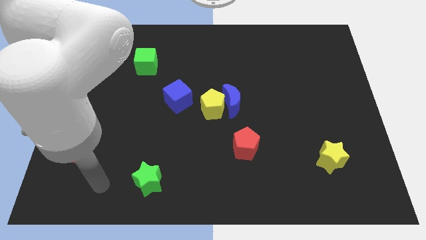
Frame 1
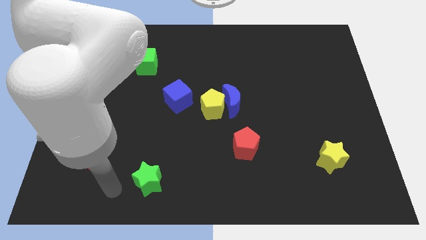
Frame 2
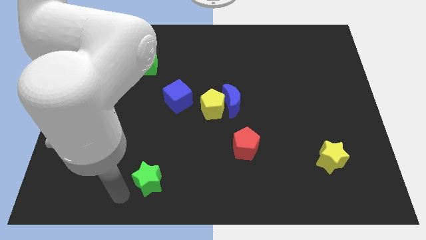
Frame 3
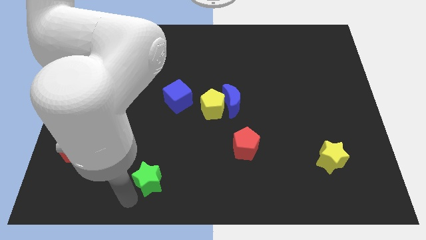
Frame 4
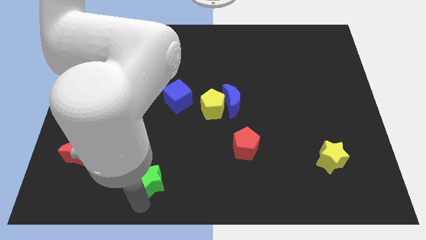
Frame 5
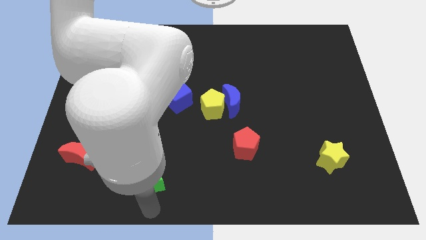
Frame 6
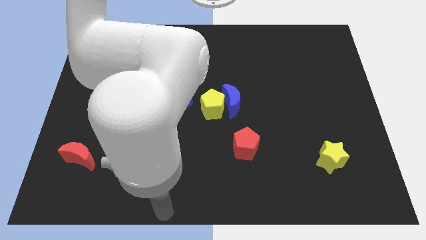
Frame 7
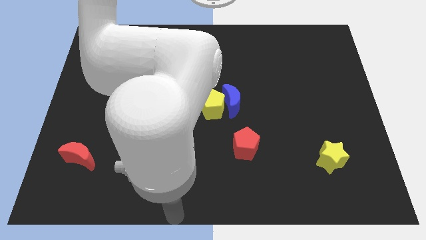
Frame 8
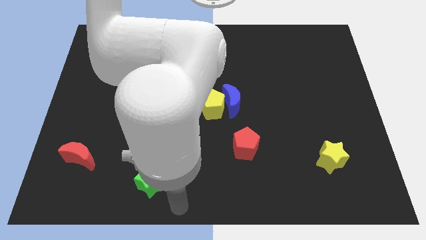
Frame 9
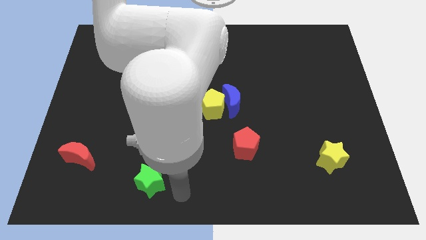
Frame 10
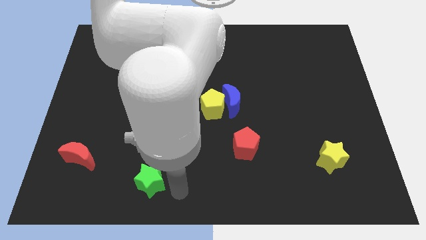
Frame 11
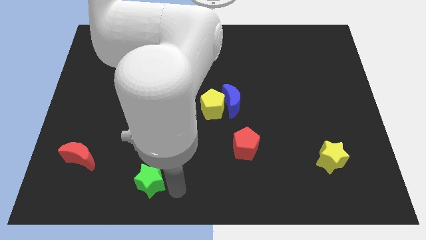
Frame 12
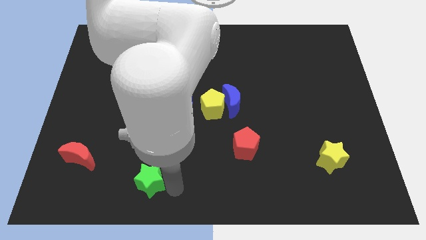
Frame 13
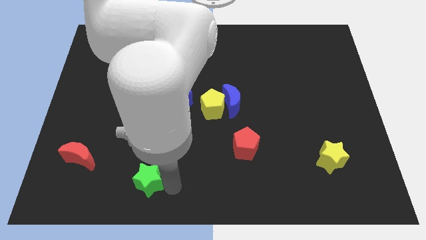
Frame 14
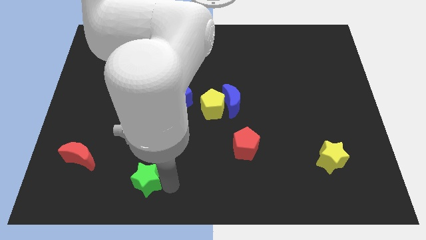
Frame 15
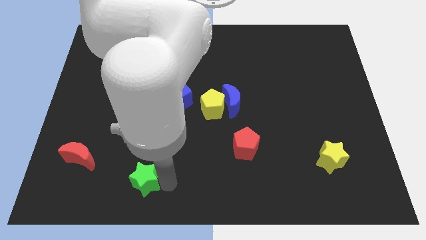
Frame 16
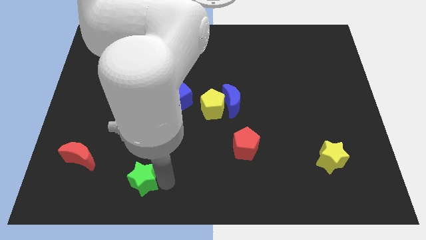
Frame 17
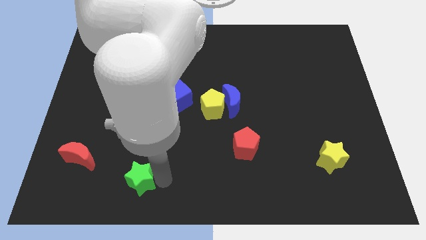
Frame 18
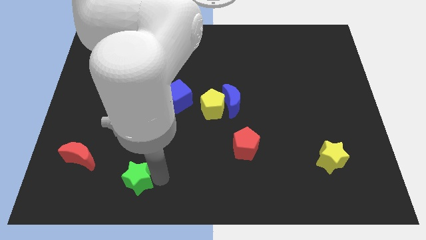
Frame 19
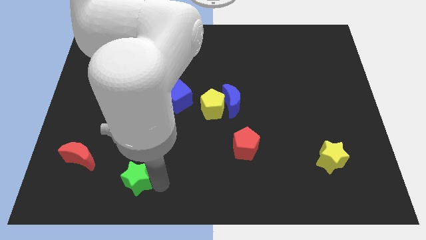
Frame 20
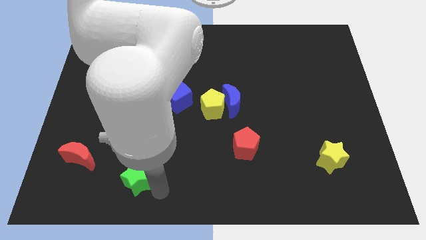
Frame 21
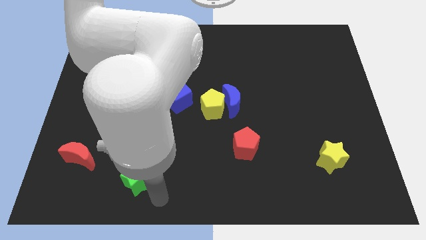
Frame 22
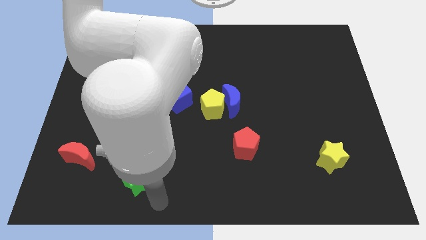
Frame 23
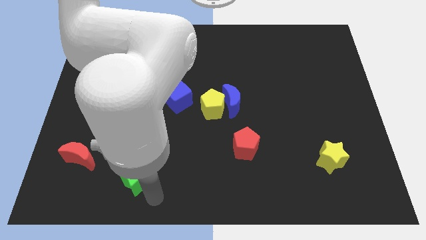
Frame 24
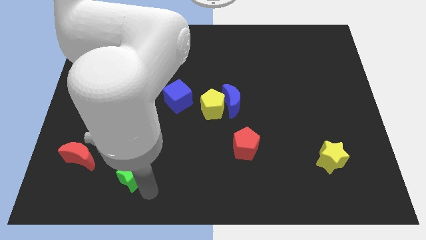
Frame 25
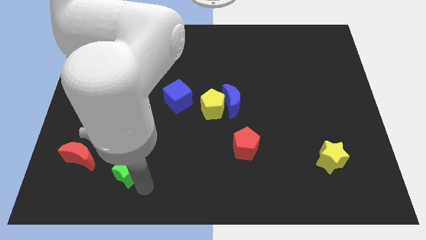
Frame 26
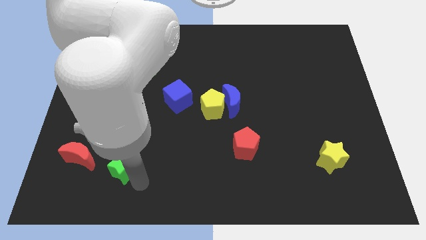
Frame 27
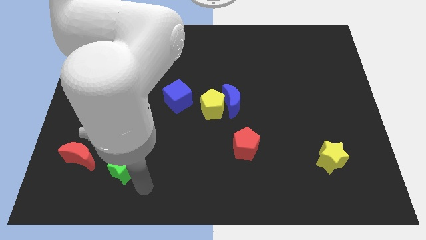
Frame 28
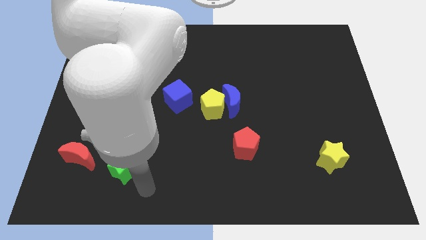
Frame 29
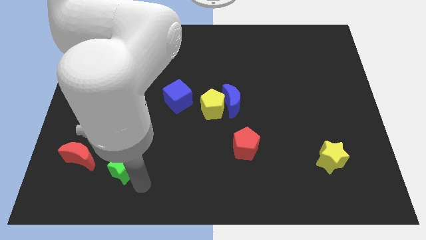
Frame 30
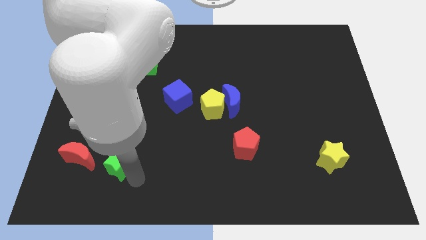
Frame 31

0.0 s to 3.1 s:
push the green star up and then to the left a little

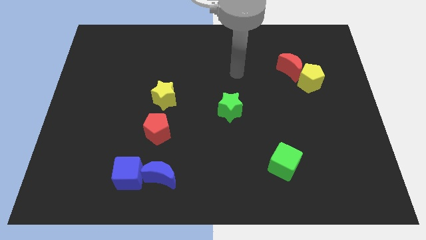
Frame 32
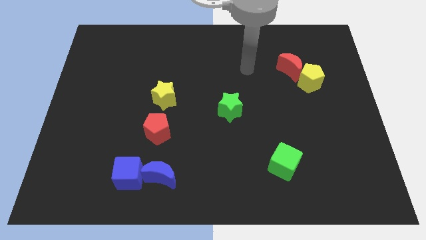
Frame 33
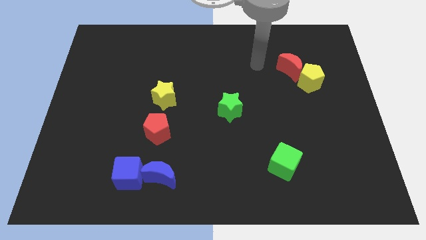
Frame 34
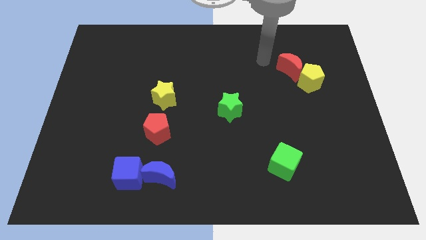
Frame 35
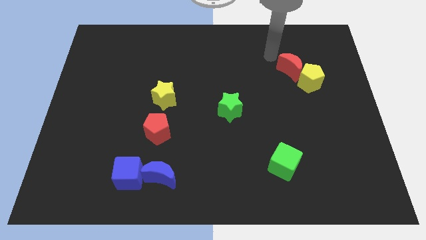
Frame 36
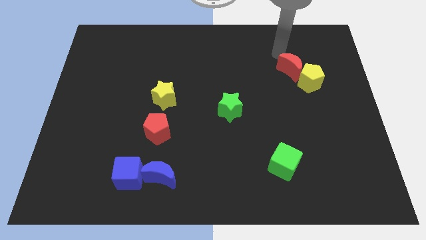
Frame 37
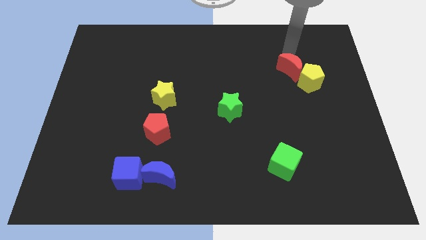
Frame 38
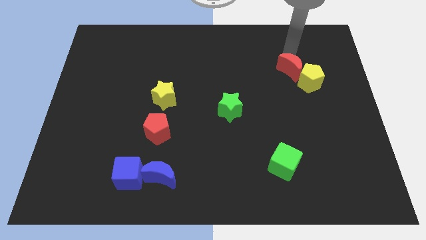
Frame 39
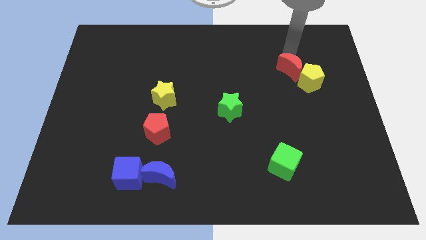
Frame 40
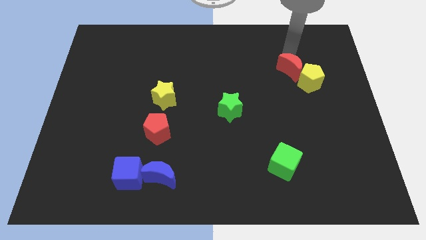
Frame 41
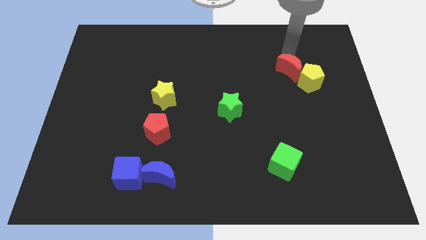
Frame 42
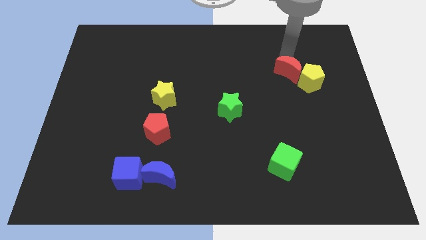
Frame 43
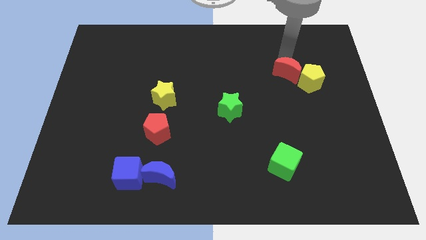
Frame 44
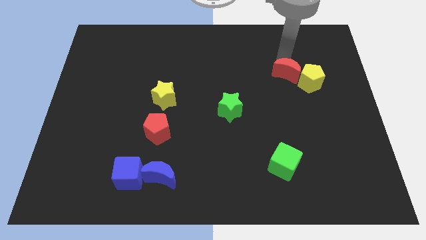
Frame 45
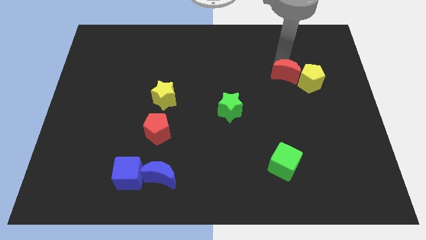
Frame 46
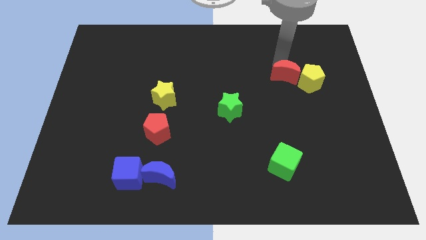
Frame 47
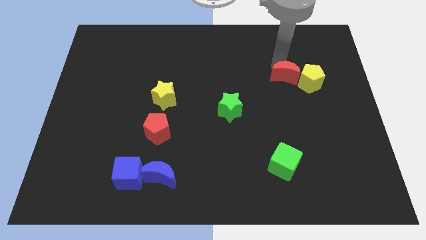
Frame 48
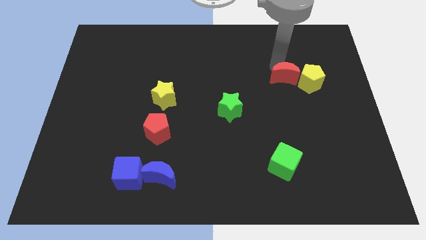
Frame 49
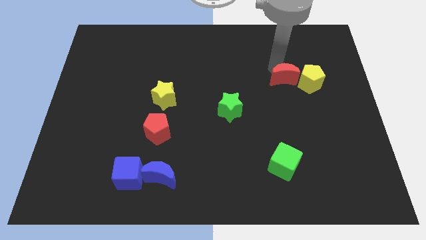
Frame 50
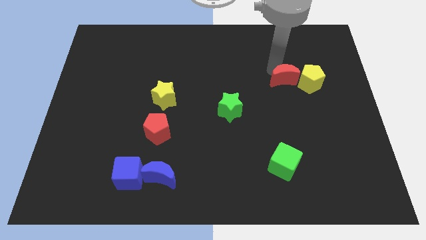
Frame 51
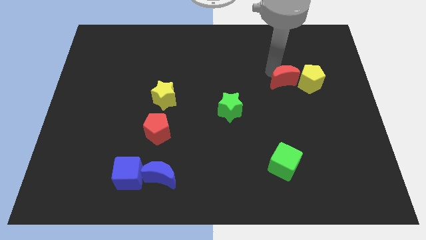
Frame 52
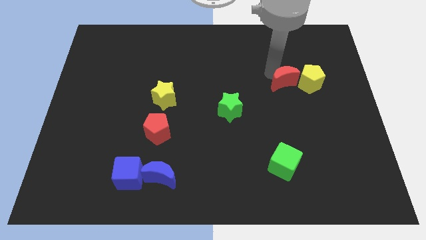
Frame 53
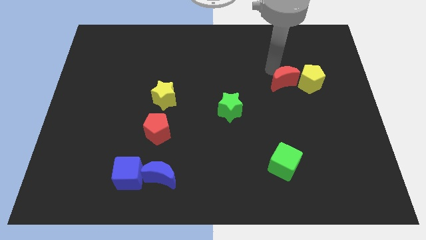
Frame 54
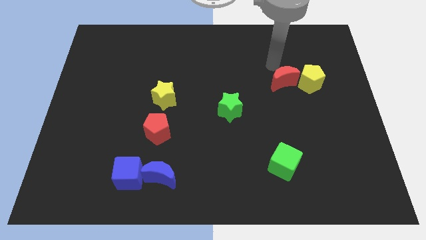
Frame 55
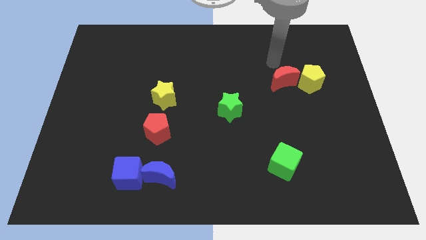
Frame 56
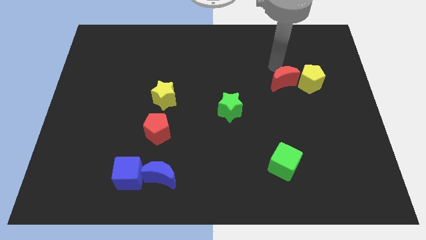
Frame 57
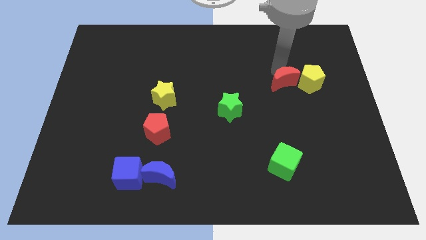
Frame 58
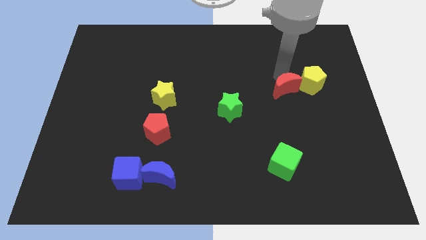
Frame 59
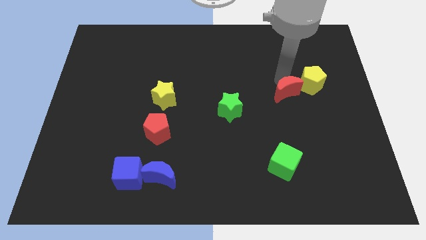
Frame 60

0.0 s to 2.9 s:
move the red moon downwards a little bit

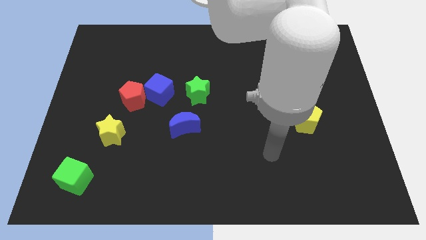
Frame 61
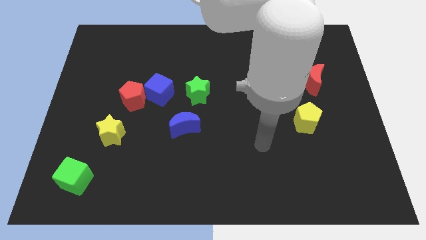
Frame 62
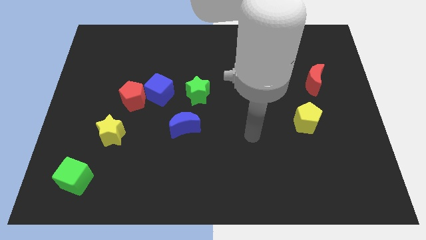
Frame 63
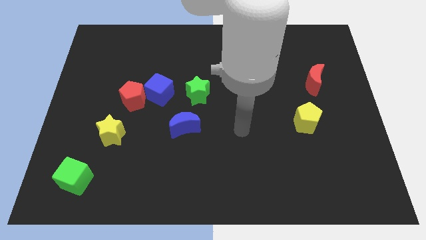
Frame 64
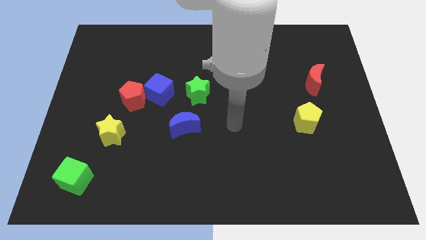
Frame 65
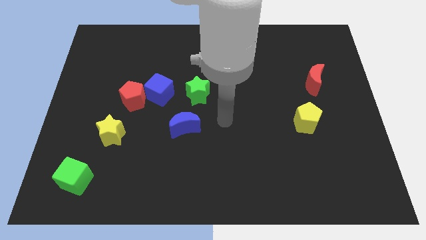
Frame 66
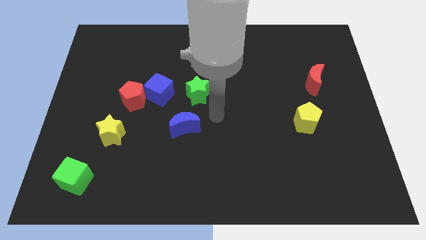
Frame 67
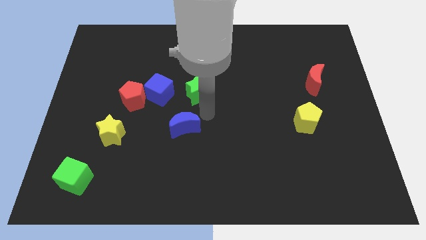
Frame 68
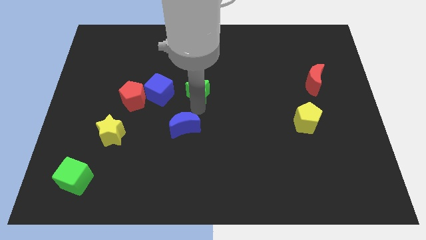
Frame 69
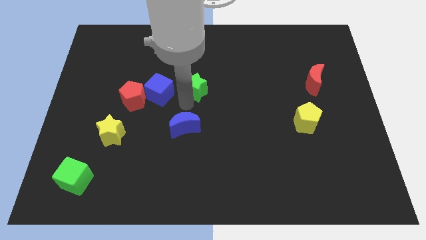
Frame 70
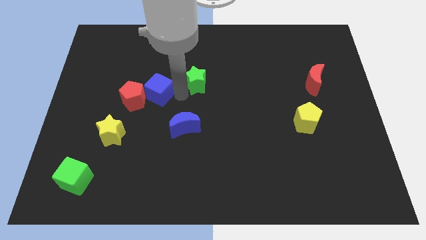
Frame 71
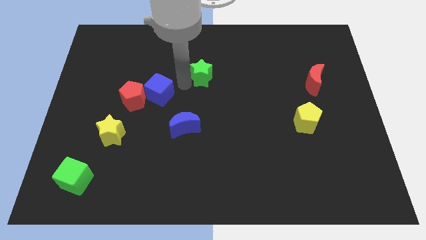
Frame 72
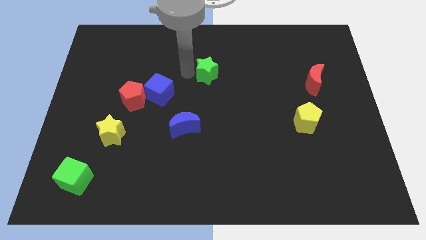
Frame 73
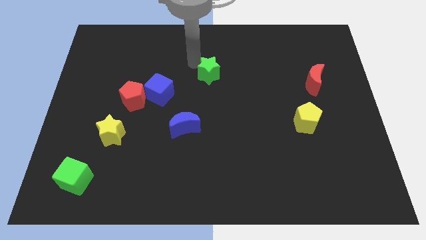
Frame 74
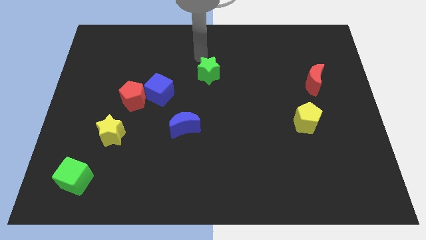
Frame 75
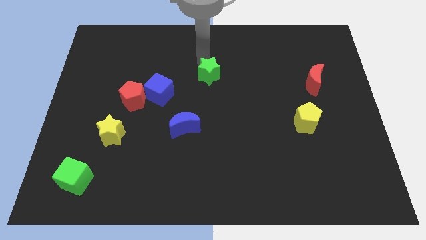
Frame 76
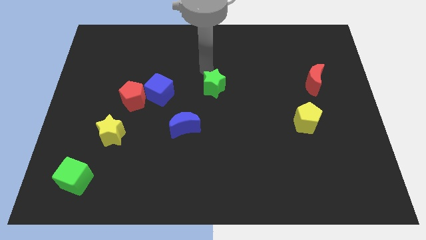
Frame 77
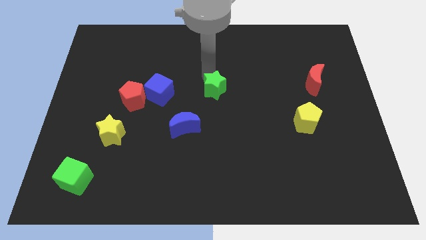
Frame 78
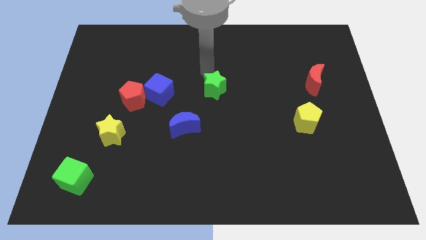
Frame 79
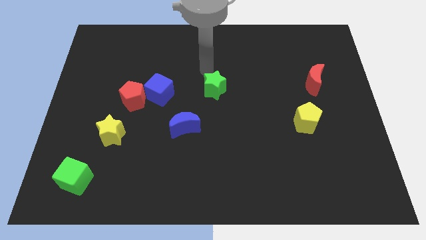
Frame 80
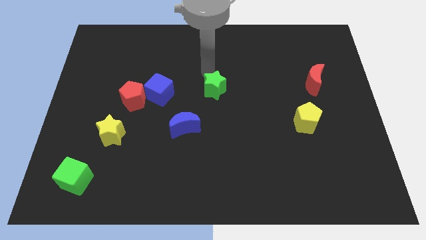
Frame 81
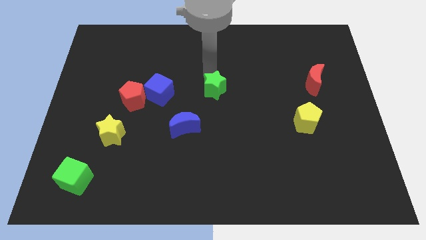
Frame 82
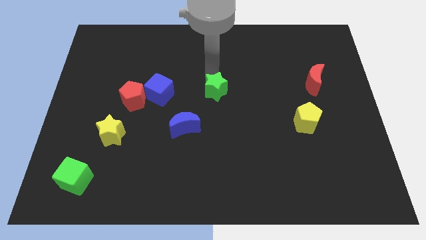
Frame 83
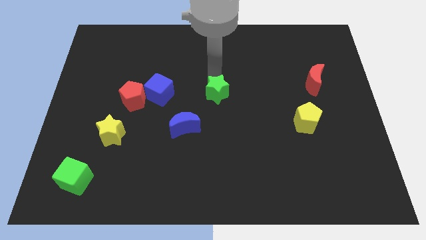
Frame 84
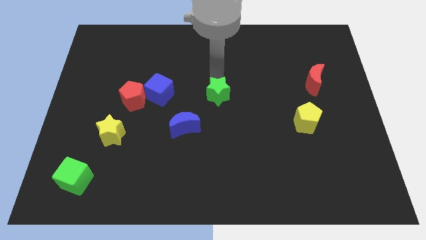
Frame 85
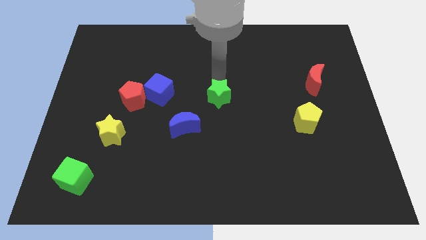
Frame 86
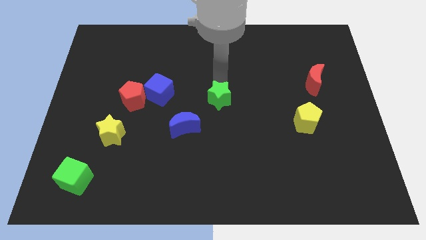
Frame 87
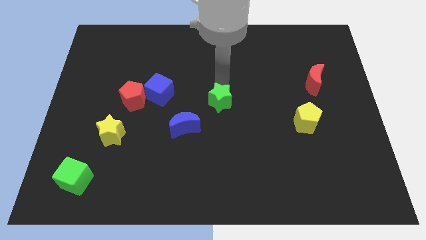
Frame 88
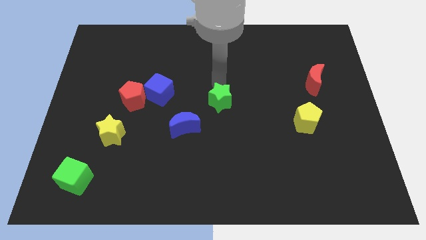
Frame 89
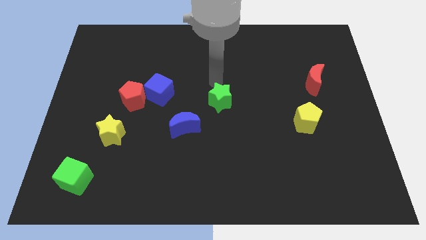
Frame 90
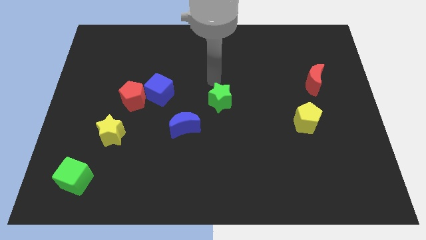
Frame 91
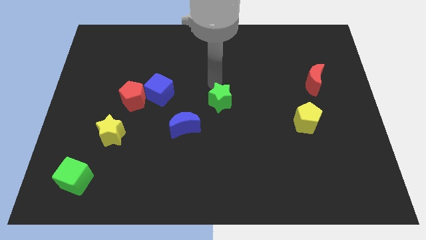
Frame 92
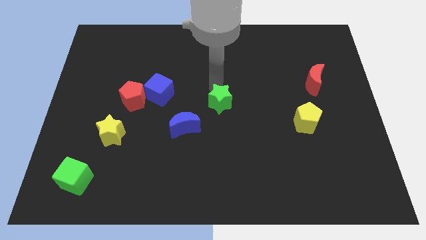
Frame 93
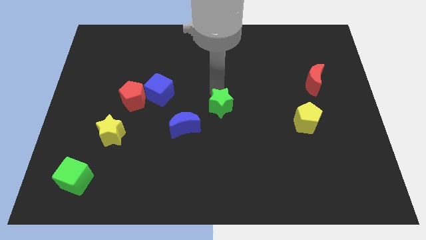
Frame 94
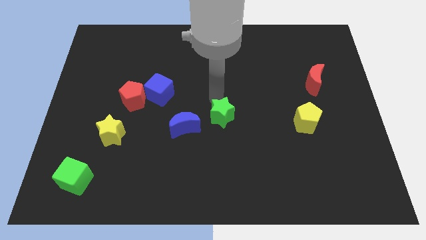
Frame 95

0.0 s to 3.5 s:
slightly move the green star down and to the right diagonally
